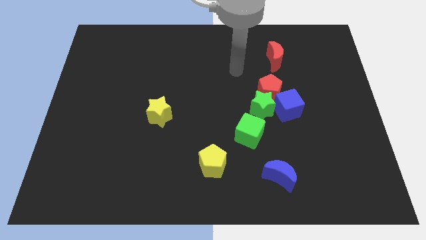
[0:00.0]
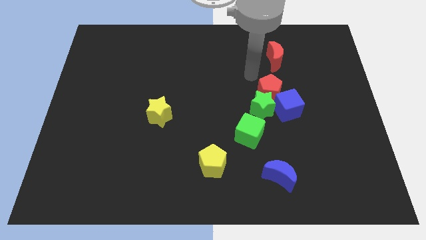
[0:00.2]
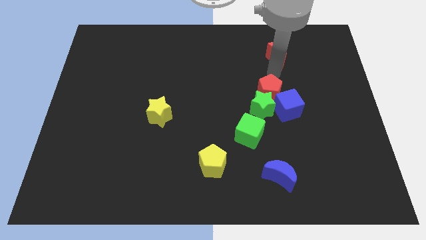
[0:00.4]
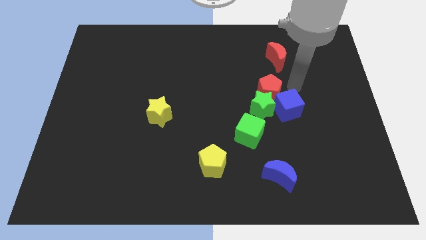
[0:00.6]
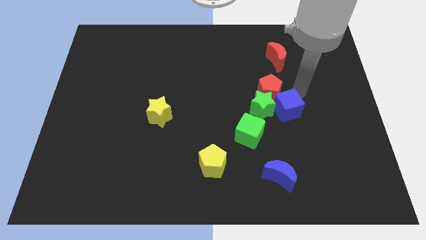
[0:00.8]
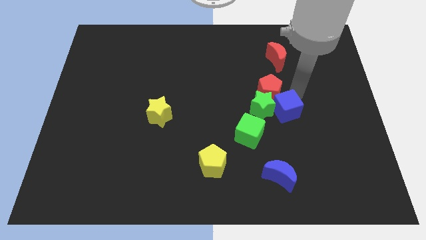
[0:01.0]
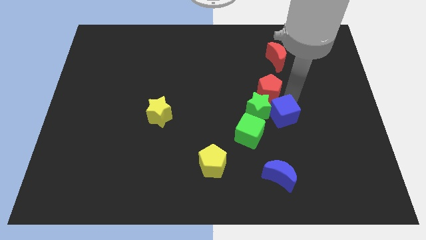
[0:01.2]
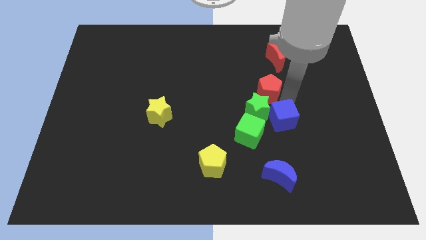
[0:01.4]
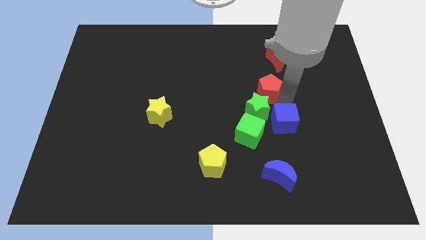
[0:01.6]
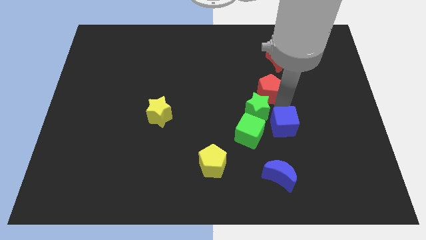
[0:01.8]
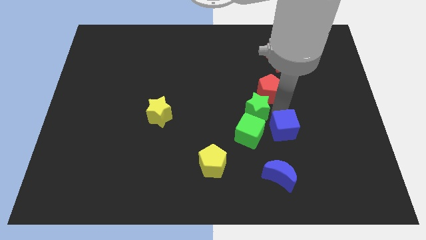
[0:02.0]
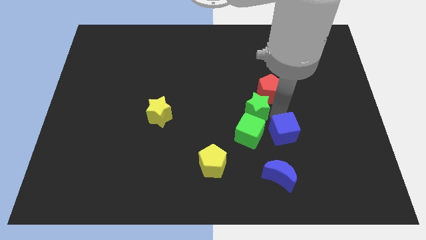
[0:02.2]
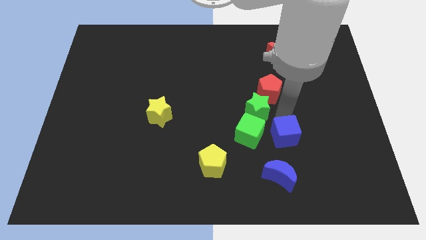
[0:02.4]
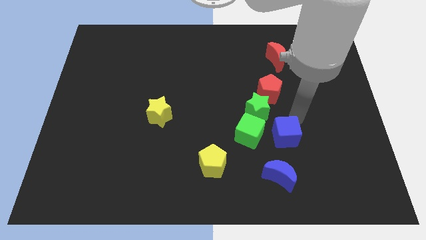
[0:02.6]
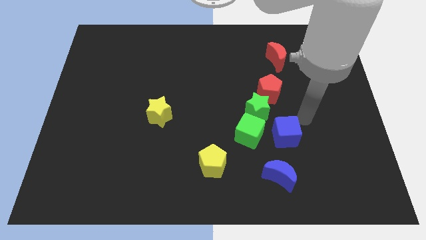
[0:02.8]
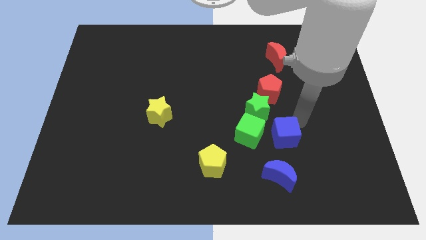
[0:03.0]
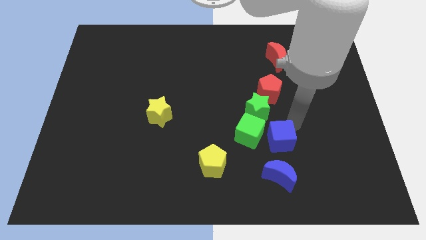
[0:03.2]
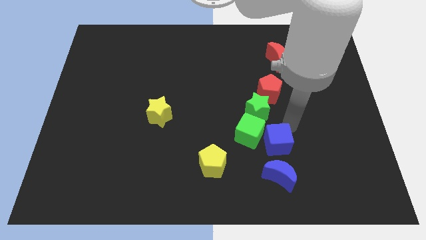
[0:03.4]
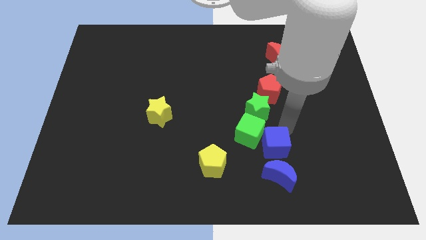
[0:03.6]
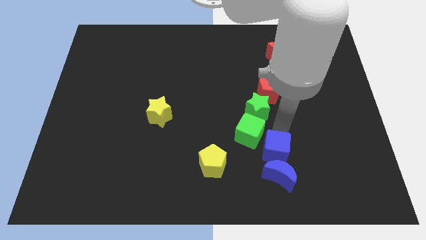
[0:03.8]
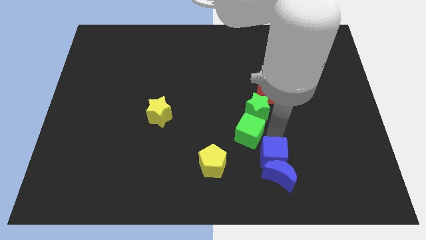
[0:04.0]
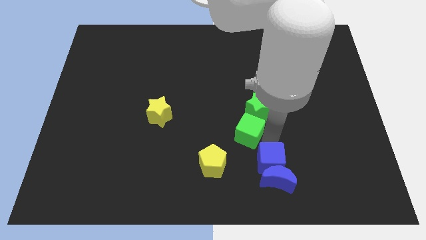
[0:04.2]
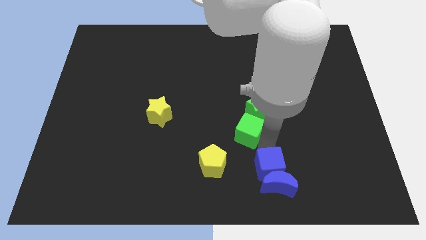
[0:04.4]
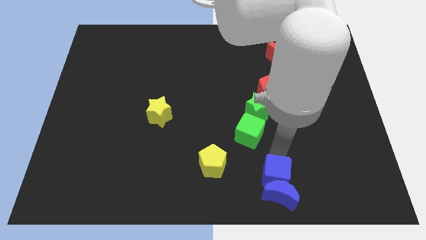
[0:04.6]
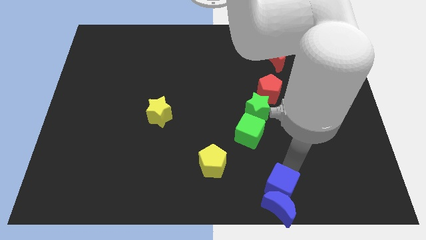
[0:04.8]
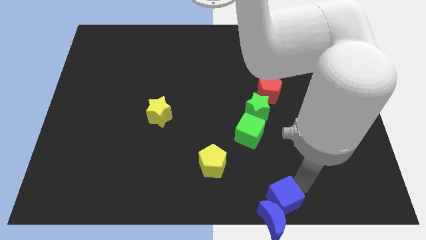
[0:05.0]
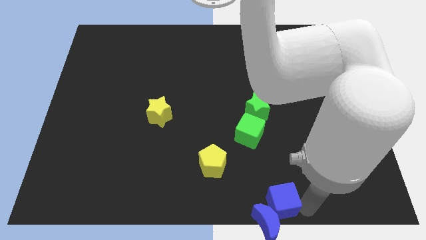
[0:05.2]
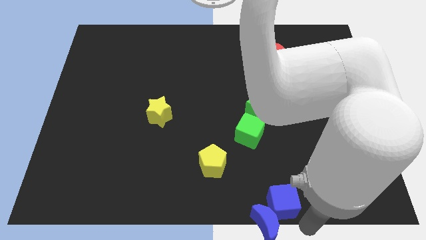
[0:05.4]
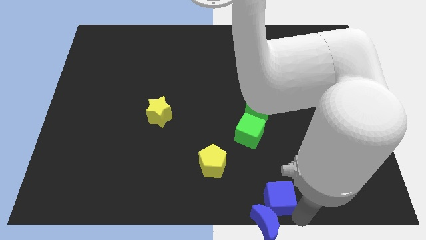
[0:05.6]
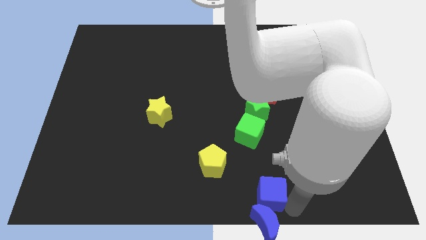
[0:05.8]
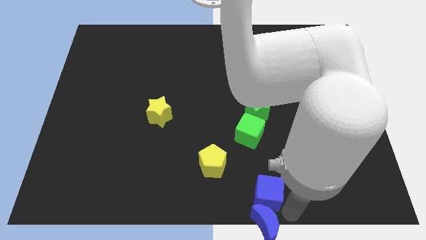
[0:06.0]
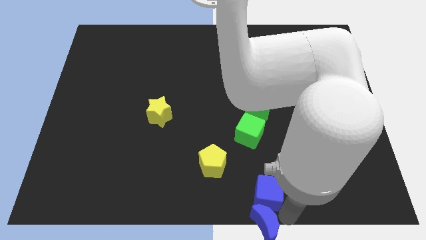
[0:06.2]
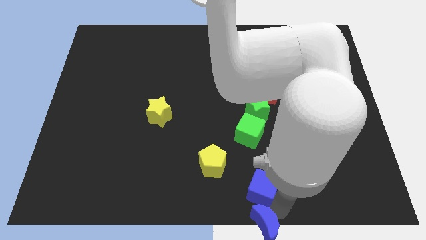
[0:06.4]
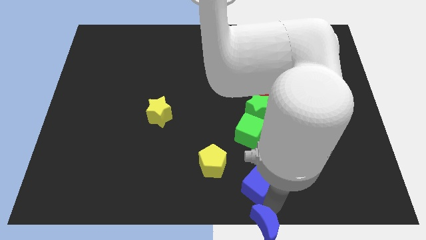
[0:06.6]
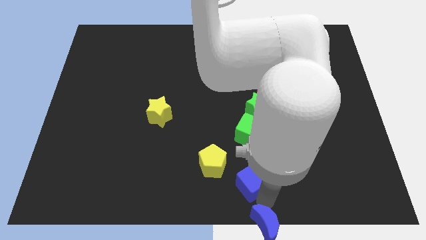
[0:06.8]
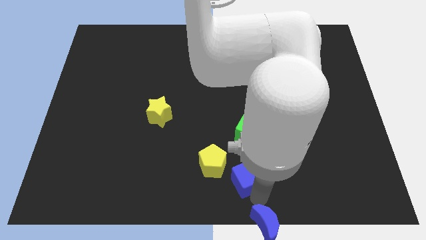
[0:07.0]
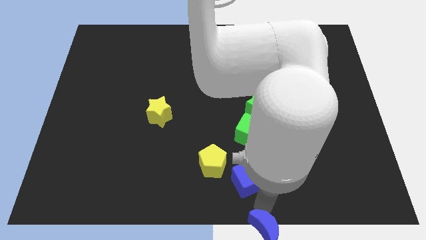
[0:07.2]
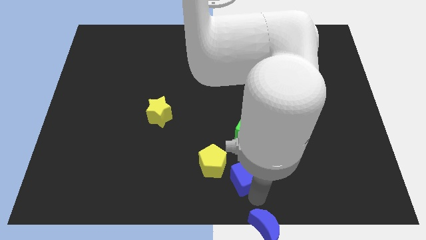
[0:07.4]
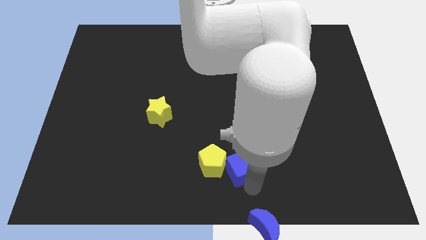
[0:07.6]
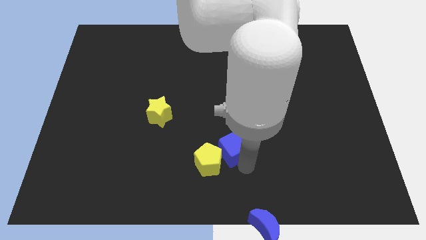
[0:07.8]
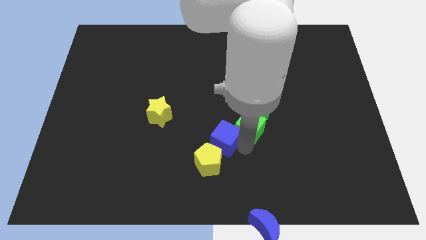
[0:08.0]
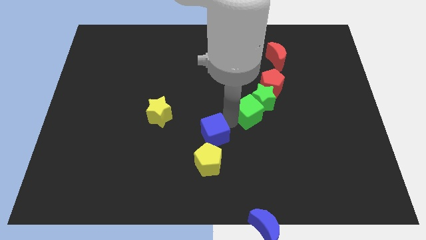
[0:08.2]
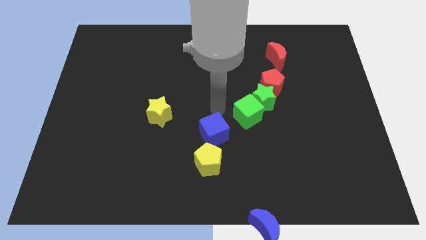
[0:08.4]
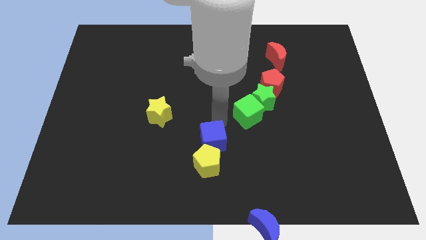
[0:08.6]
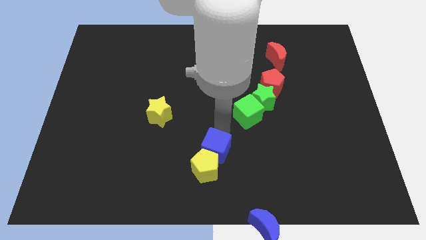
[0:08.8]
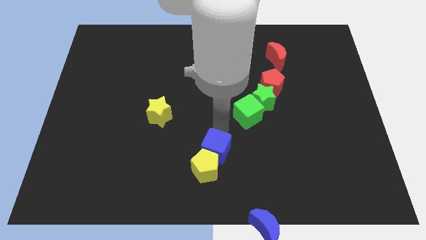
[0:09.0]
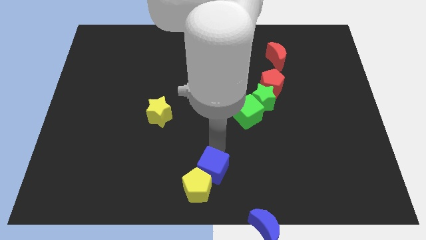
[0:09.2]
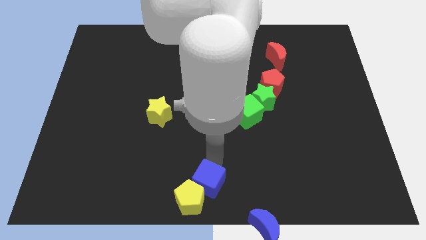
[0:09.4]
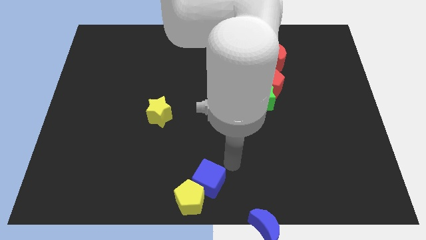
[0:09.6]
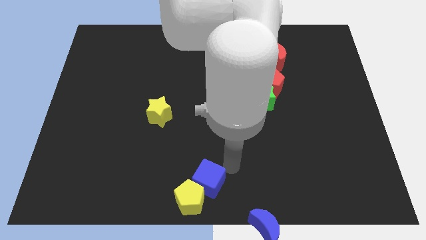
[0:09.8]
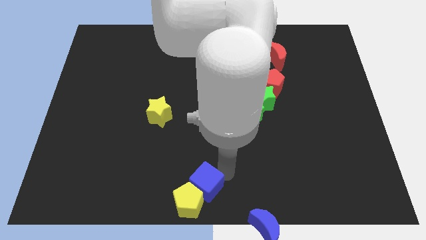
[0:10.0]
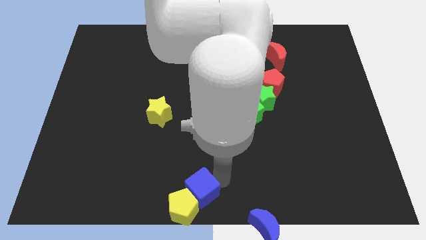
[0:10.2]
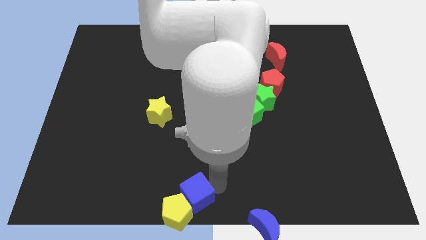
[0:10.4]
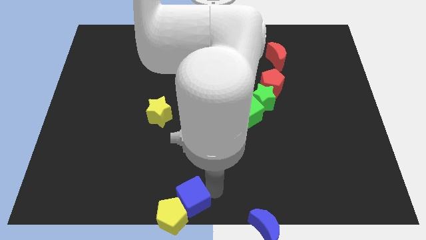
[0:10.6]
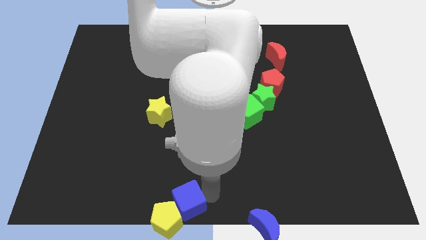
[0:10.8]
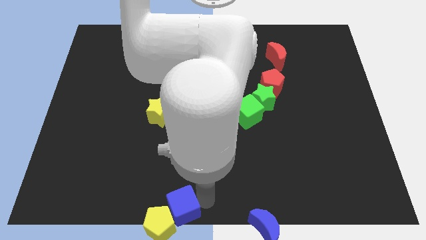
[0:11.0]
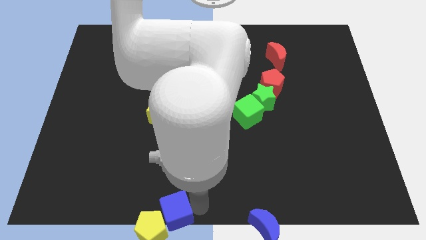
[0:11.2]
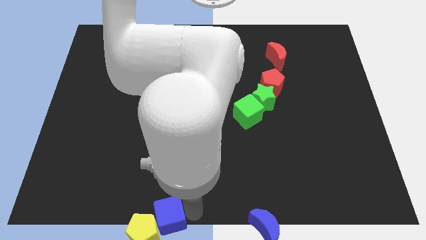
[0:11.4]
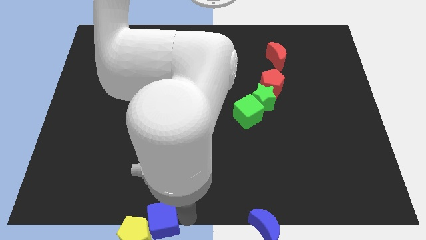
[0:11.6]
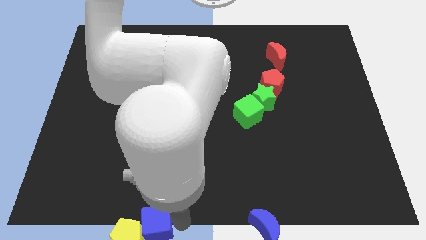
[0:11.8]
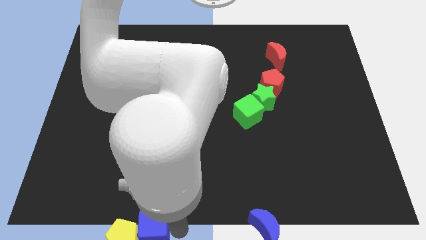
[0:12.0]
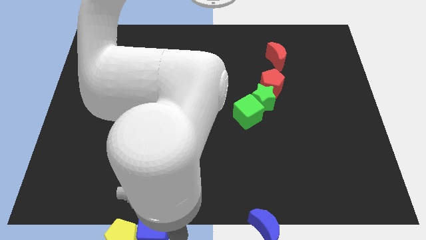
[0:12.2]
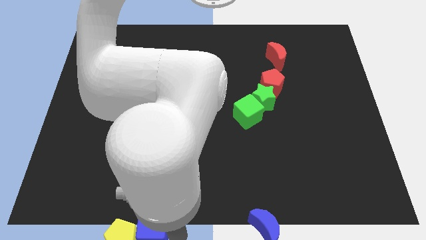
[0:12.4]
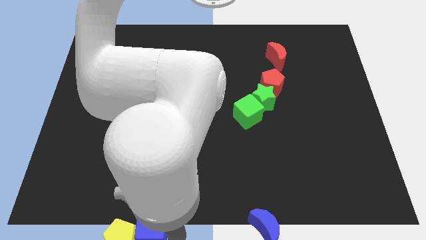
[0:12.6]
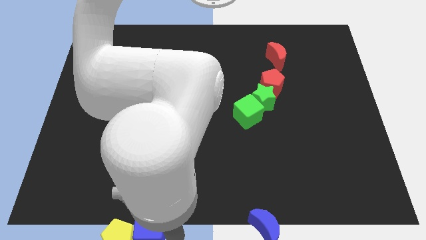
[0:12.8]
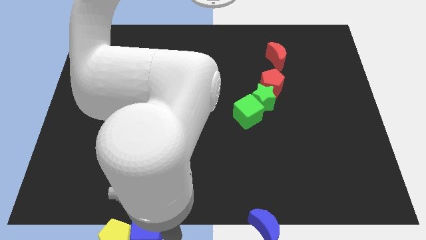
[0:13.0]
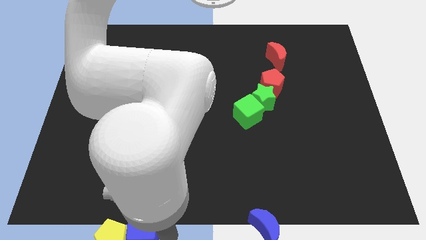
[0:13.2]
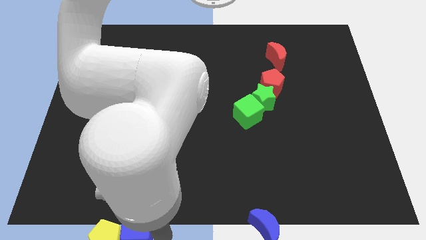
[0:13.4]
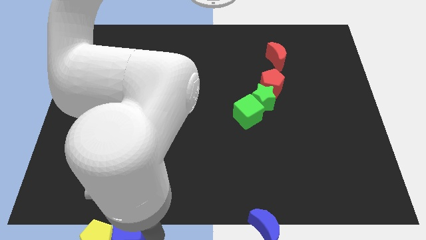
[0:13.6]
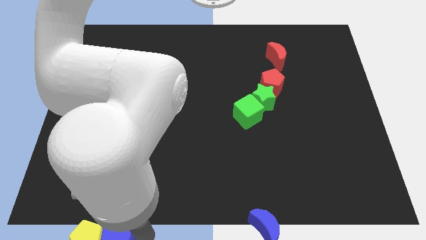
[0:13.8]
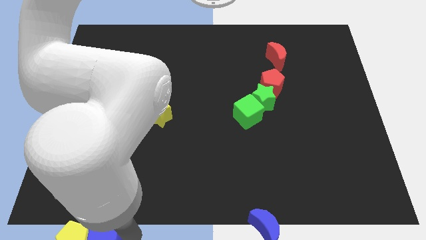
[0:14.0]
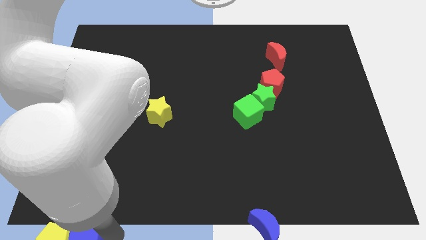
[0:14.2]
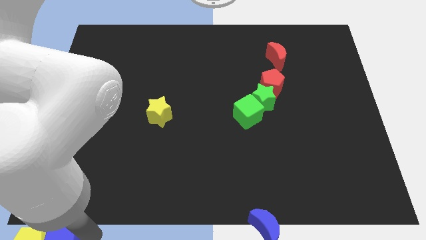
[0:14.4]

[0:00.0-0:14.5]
move the blue cube to the bottom left
